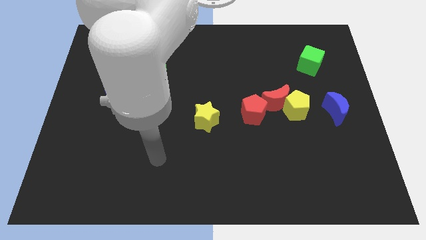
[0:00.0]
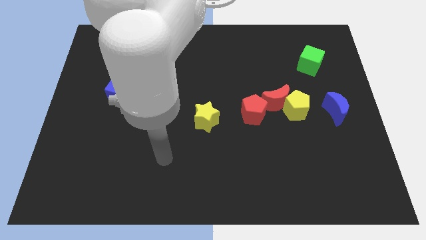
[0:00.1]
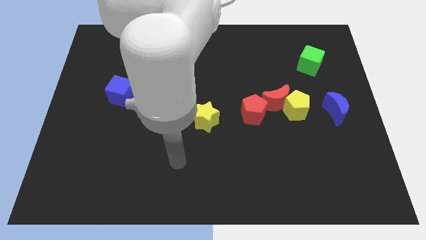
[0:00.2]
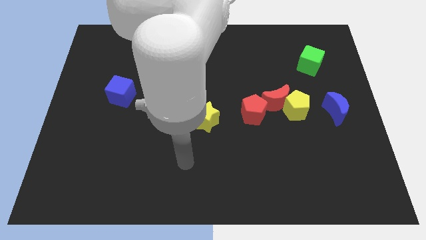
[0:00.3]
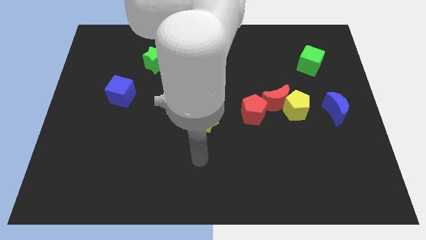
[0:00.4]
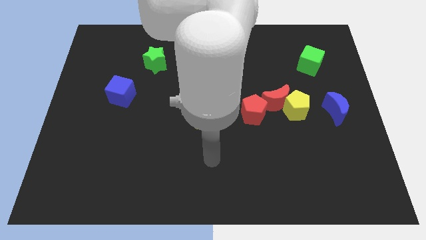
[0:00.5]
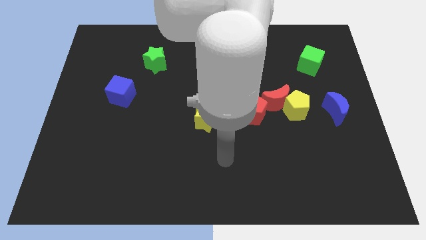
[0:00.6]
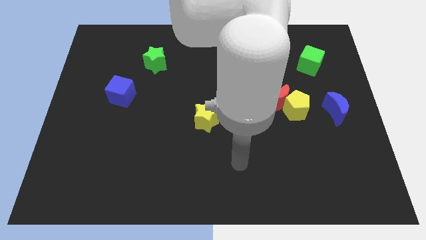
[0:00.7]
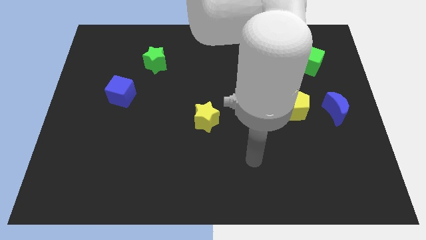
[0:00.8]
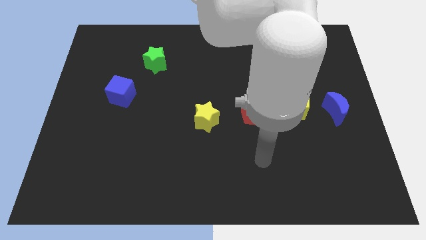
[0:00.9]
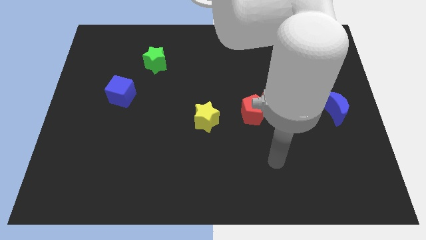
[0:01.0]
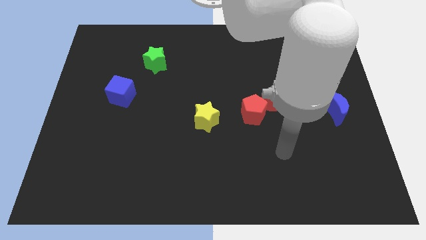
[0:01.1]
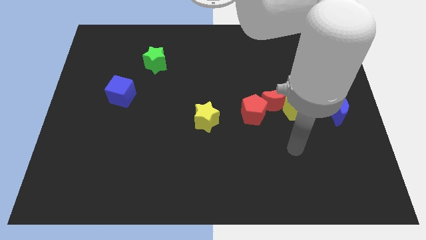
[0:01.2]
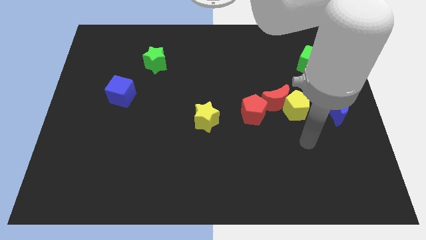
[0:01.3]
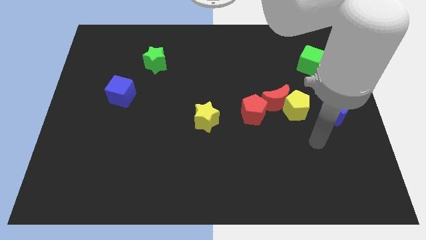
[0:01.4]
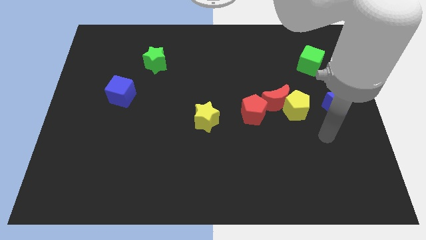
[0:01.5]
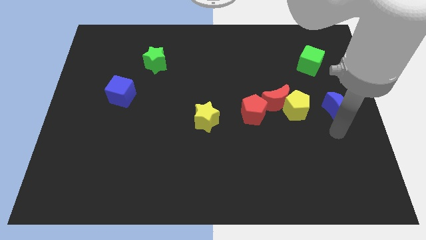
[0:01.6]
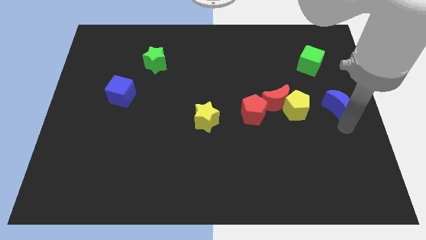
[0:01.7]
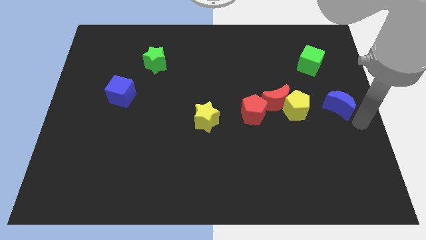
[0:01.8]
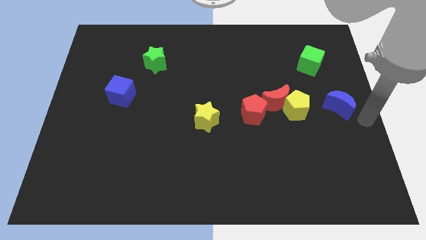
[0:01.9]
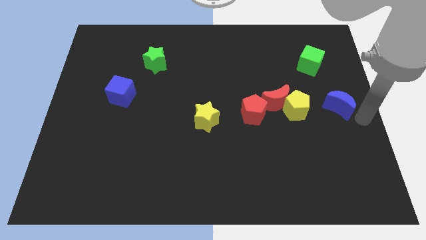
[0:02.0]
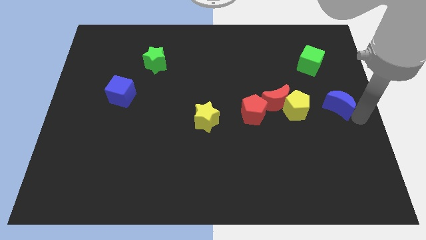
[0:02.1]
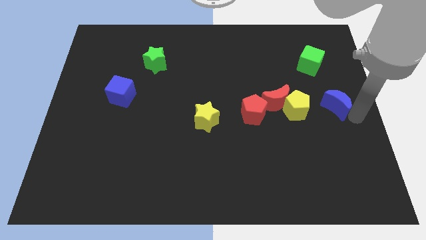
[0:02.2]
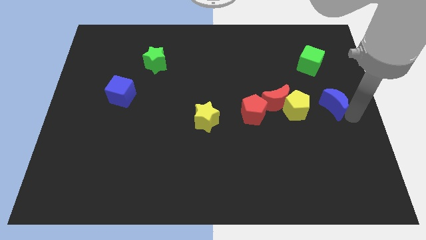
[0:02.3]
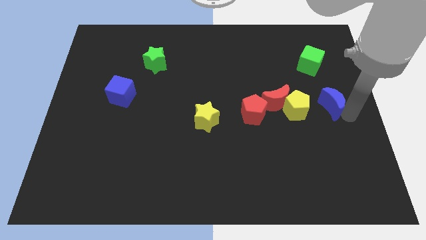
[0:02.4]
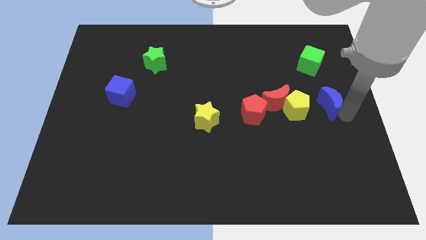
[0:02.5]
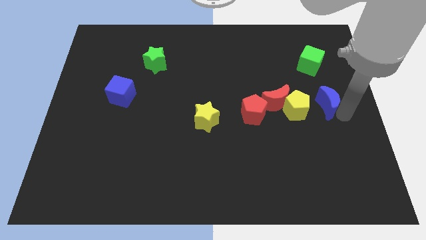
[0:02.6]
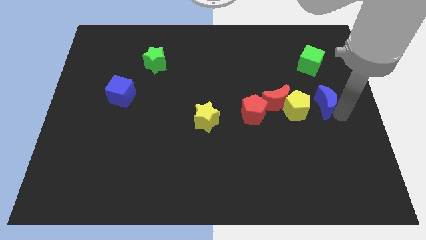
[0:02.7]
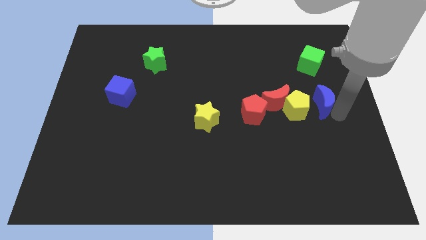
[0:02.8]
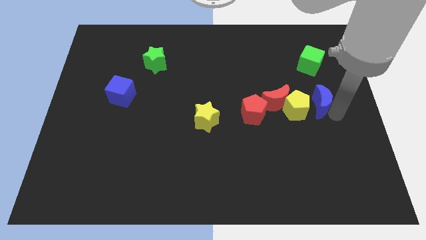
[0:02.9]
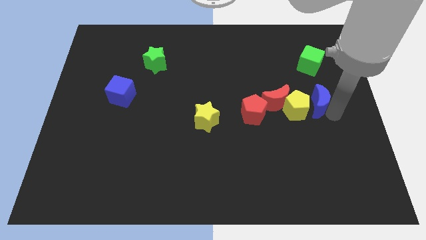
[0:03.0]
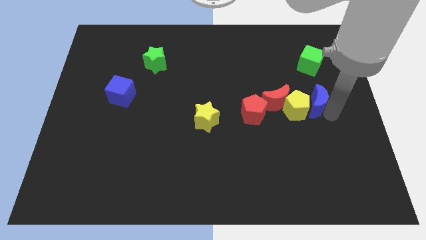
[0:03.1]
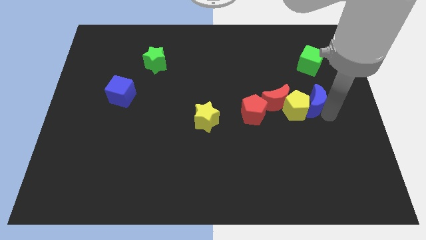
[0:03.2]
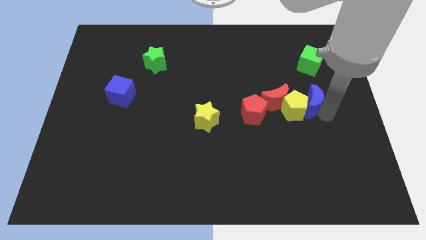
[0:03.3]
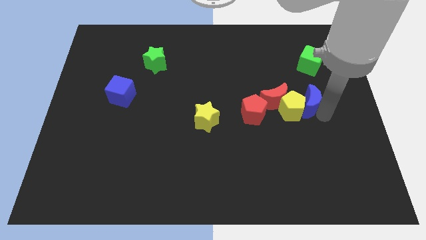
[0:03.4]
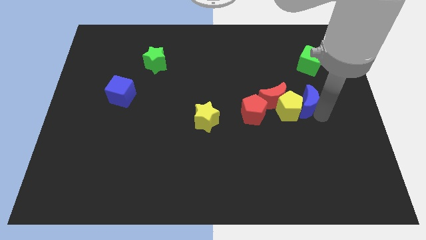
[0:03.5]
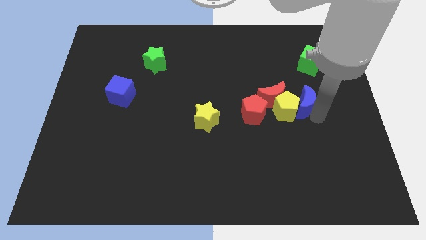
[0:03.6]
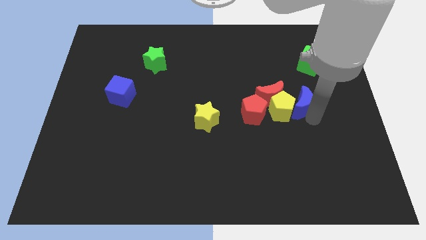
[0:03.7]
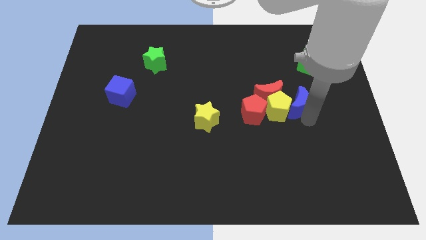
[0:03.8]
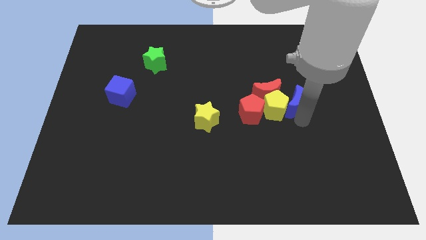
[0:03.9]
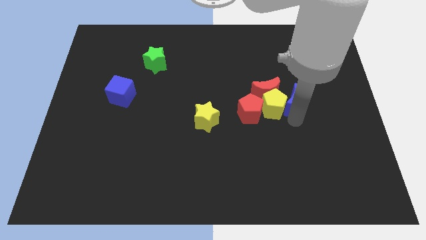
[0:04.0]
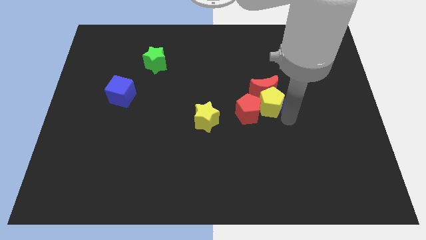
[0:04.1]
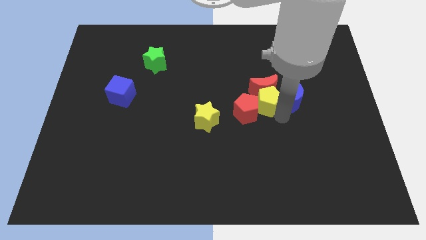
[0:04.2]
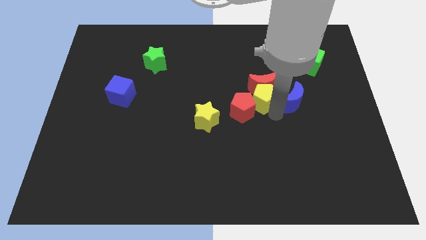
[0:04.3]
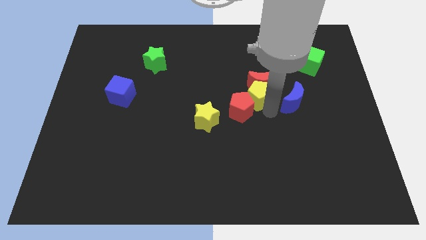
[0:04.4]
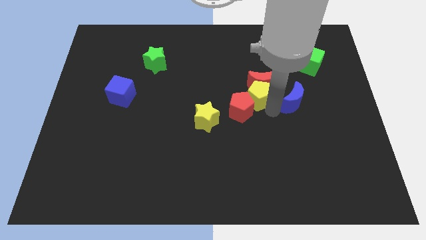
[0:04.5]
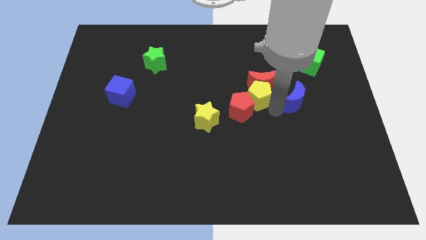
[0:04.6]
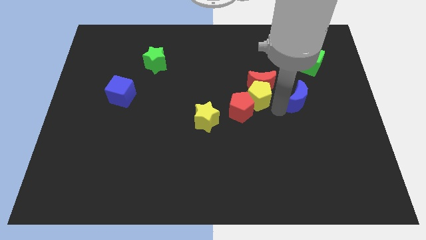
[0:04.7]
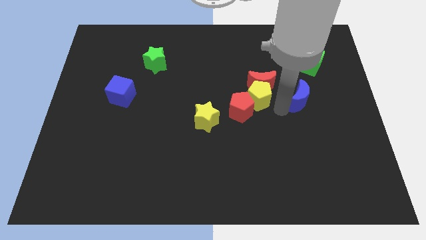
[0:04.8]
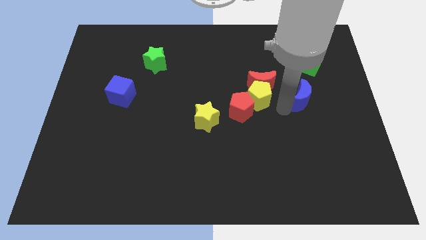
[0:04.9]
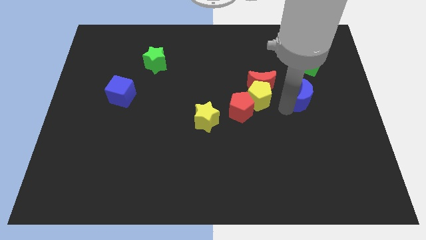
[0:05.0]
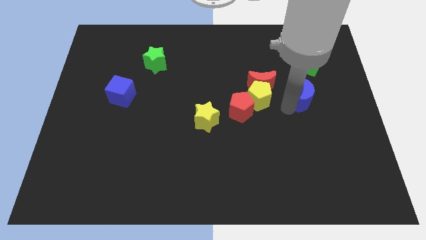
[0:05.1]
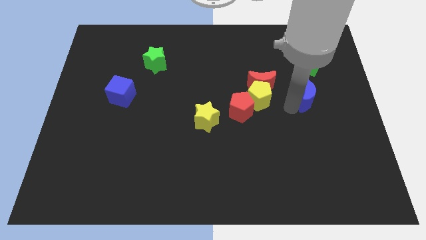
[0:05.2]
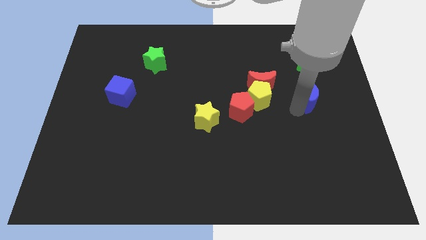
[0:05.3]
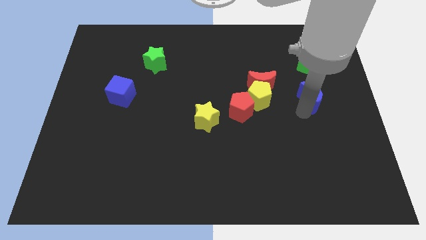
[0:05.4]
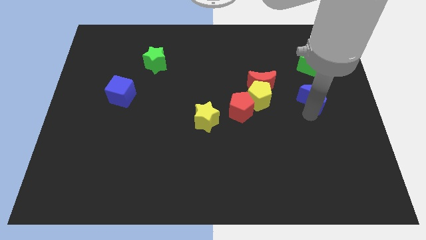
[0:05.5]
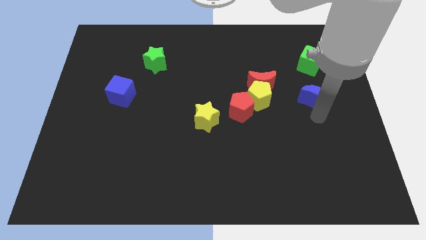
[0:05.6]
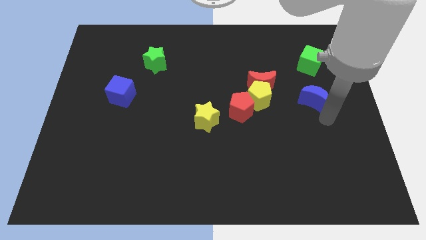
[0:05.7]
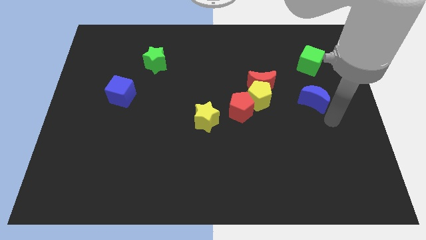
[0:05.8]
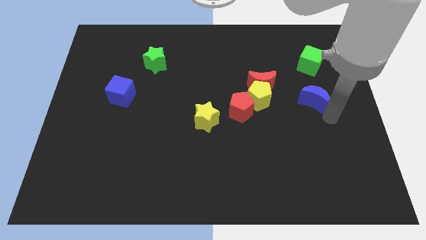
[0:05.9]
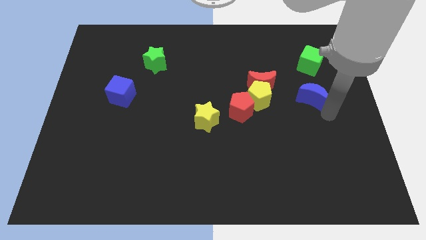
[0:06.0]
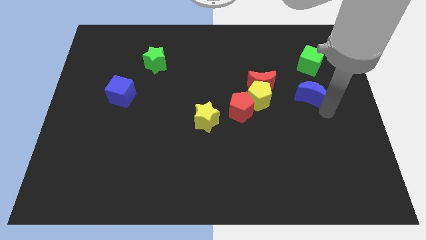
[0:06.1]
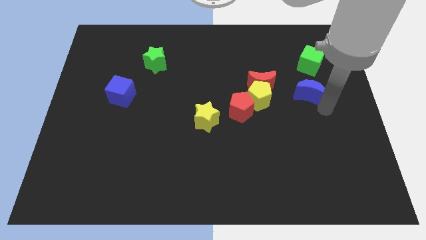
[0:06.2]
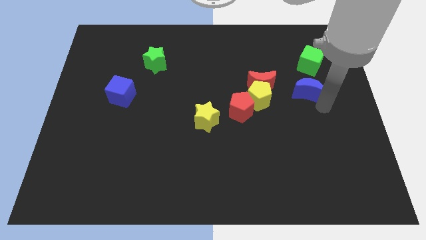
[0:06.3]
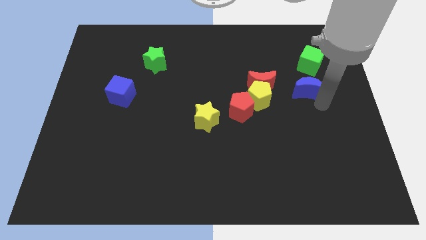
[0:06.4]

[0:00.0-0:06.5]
push the blue moon to the bottom left side of the green cube

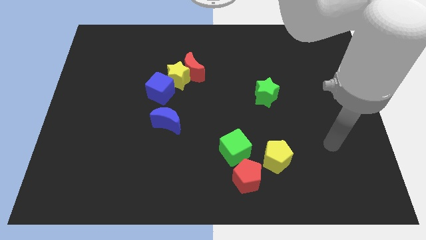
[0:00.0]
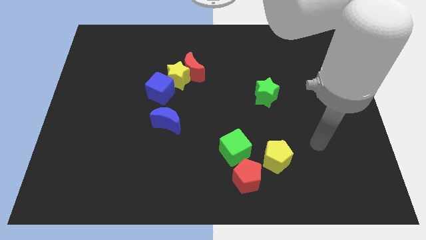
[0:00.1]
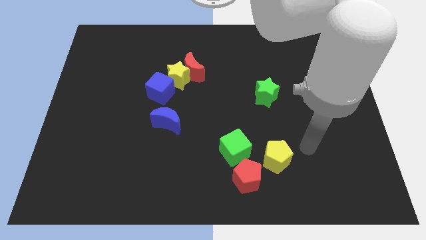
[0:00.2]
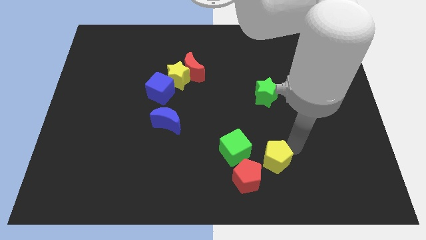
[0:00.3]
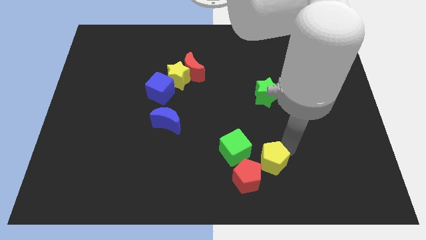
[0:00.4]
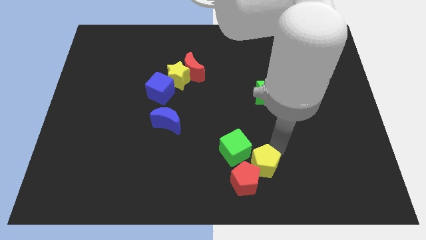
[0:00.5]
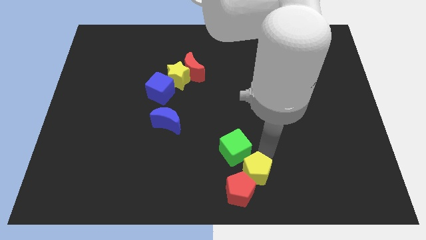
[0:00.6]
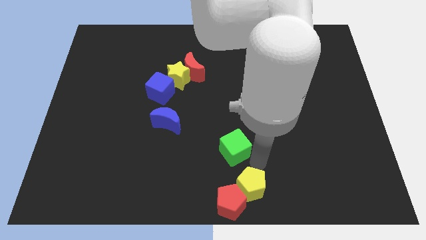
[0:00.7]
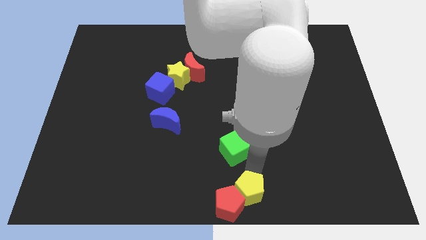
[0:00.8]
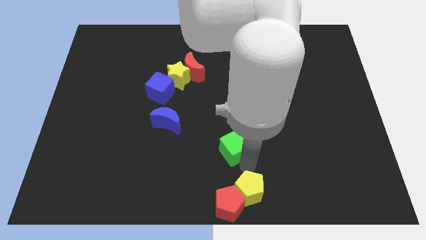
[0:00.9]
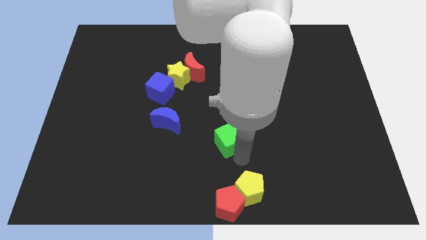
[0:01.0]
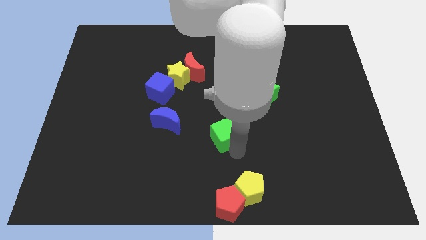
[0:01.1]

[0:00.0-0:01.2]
move the green cube to the right side of the blue moon
